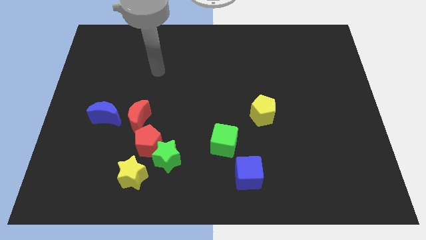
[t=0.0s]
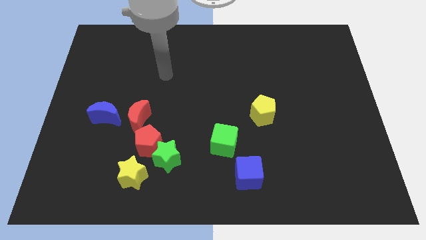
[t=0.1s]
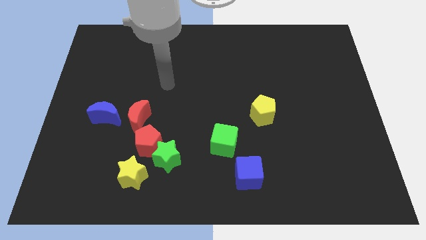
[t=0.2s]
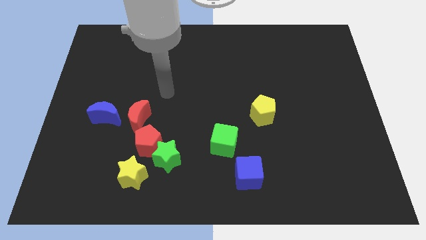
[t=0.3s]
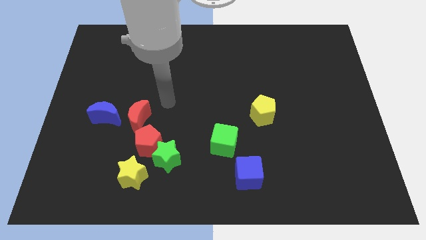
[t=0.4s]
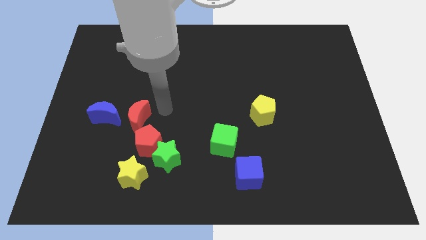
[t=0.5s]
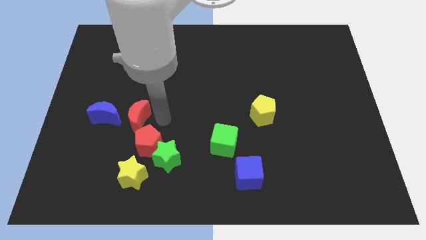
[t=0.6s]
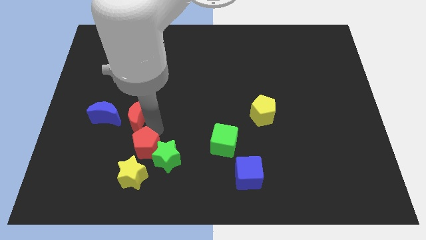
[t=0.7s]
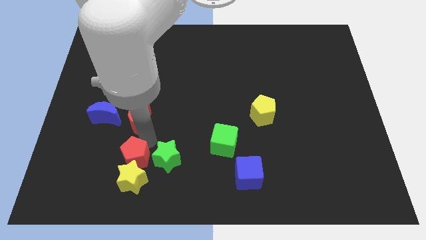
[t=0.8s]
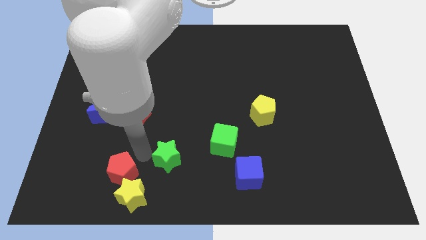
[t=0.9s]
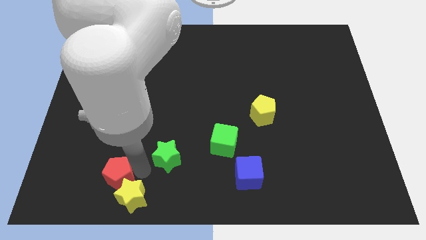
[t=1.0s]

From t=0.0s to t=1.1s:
move the green star away from the red pentagon and yellow star

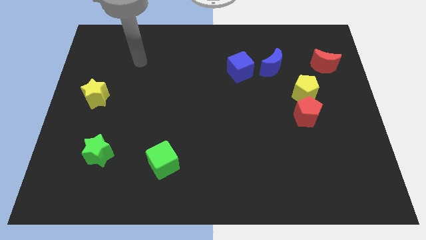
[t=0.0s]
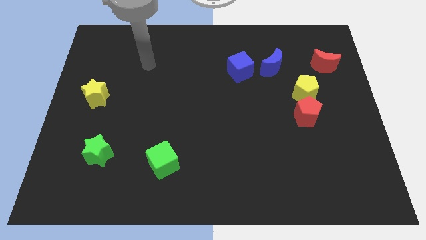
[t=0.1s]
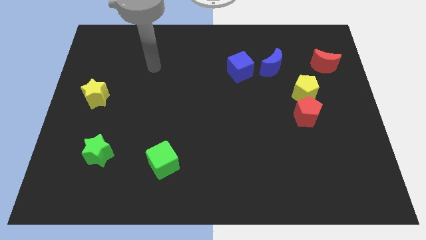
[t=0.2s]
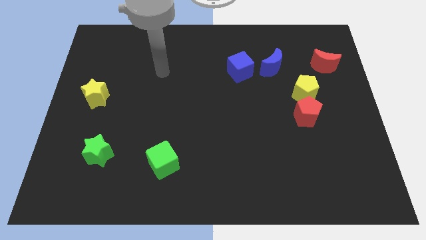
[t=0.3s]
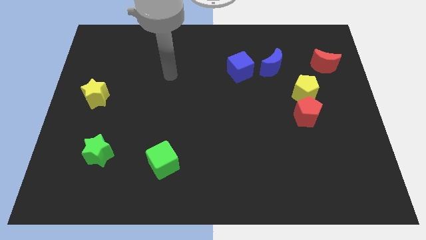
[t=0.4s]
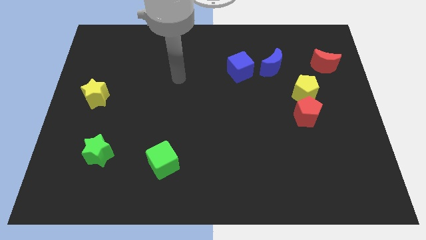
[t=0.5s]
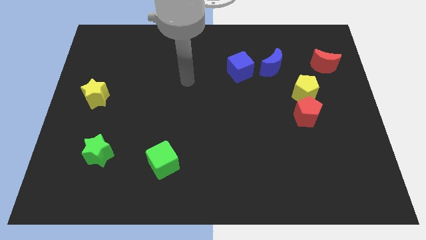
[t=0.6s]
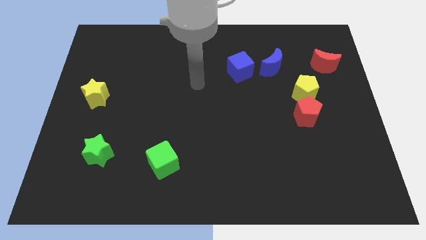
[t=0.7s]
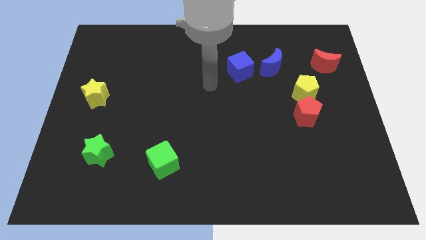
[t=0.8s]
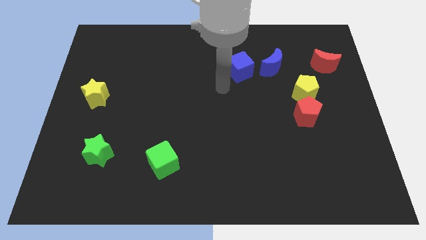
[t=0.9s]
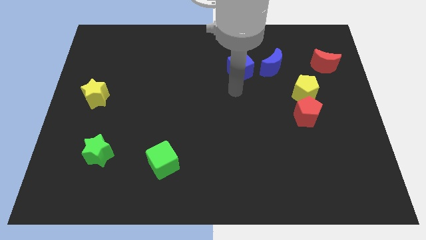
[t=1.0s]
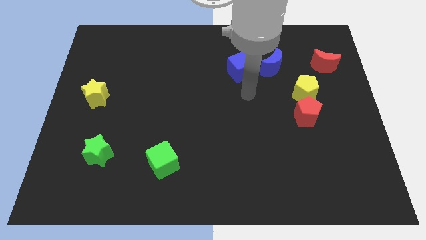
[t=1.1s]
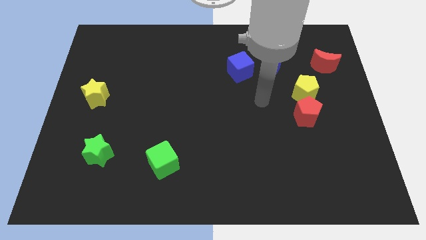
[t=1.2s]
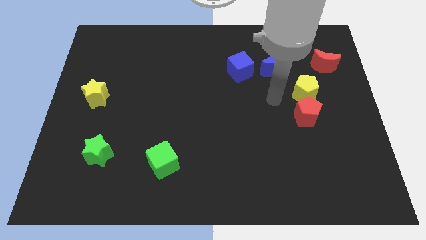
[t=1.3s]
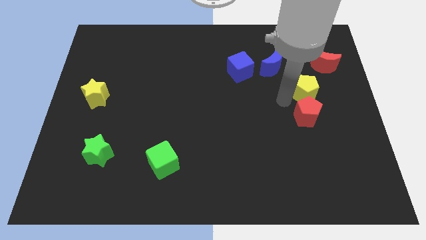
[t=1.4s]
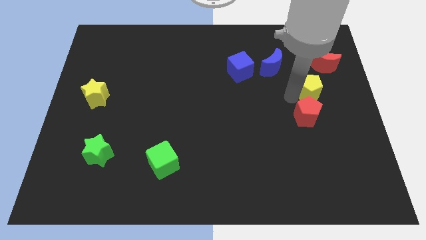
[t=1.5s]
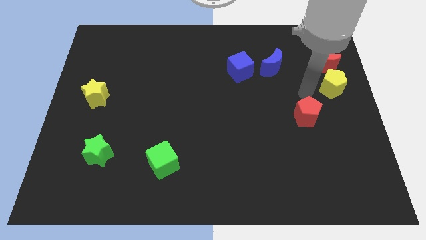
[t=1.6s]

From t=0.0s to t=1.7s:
pull the red pentagon apart from the yellow pentagon

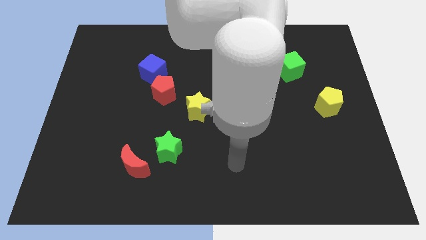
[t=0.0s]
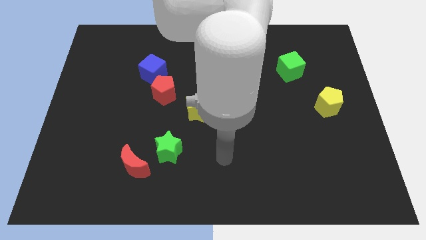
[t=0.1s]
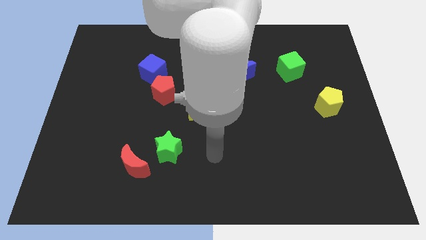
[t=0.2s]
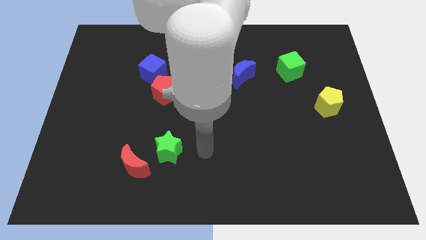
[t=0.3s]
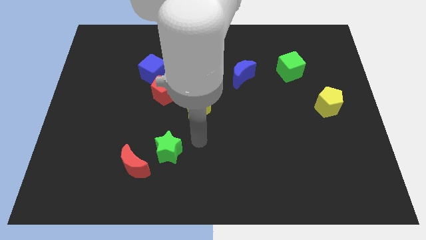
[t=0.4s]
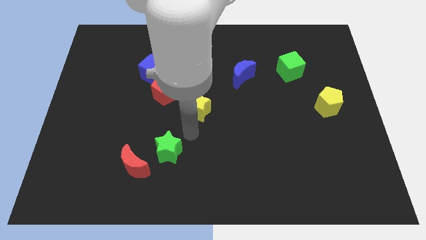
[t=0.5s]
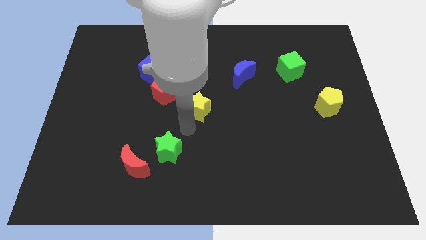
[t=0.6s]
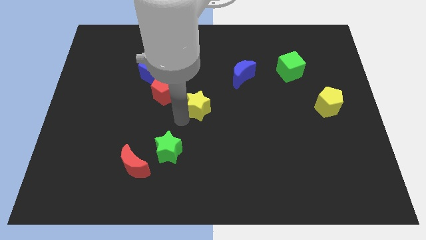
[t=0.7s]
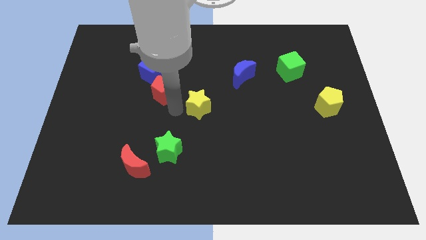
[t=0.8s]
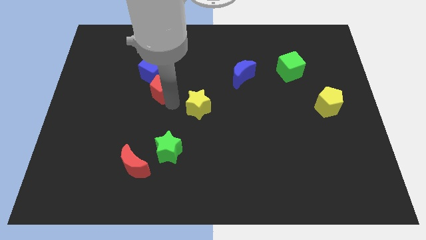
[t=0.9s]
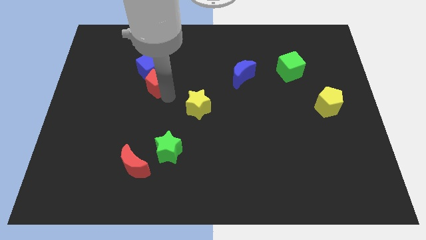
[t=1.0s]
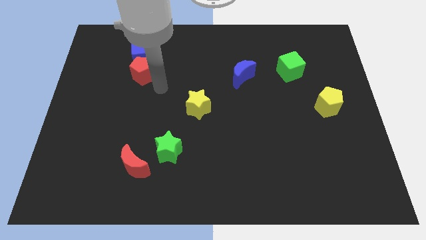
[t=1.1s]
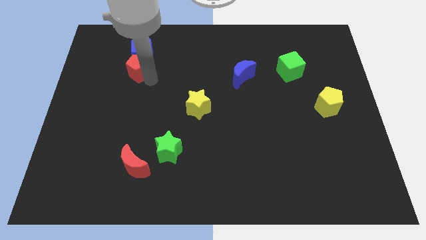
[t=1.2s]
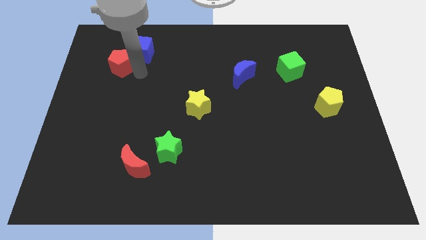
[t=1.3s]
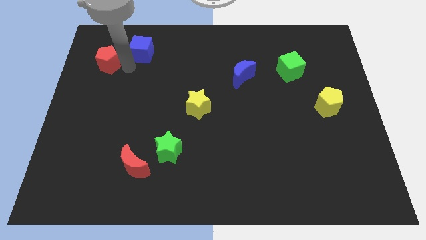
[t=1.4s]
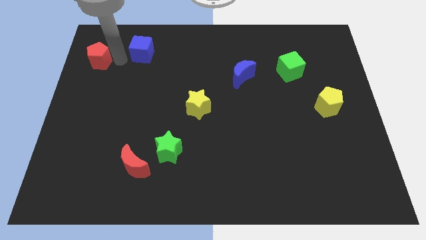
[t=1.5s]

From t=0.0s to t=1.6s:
move the blue cube away from the red pentagon

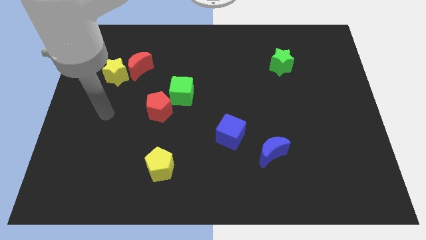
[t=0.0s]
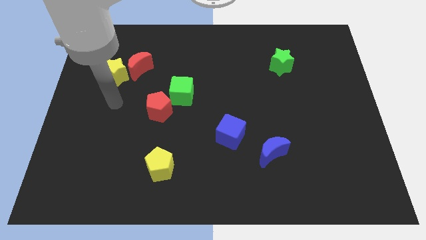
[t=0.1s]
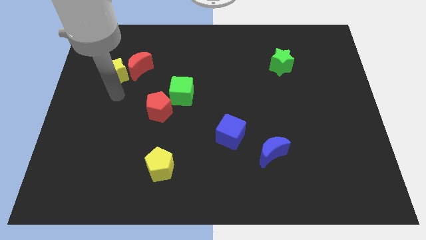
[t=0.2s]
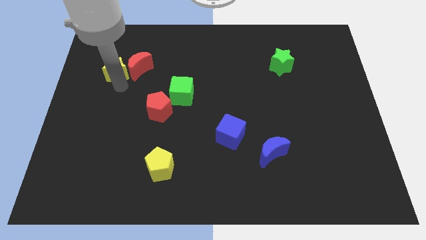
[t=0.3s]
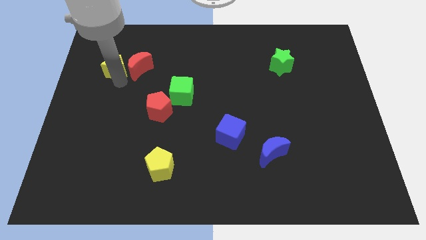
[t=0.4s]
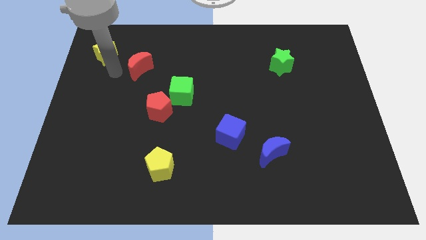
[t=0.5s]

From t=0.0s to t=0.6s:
separate the red moon from the yellow star

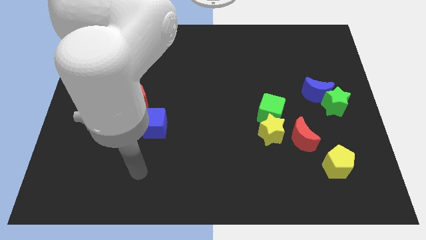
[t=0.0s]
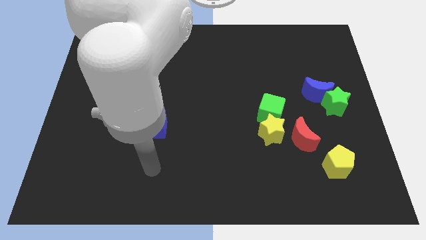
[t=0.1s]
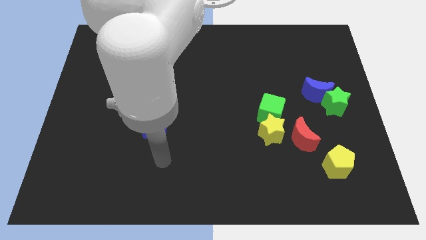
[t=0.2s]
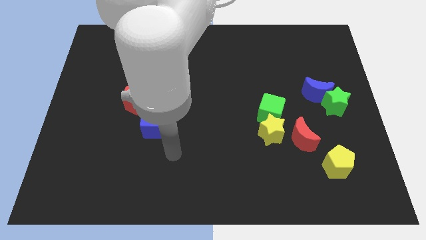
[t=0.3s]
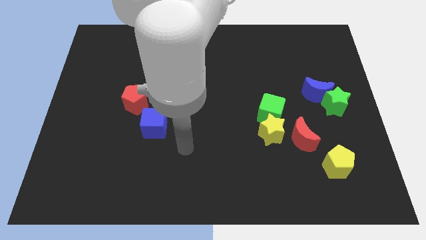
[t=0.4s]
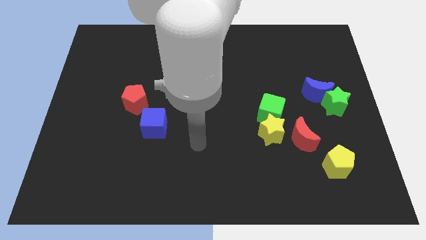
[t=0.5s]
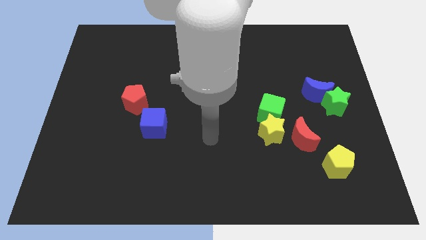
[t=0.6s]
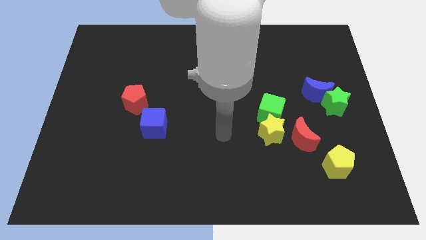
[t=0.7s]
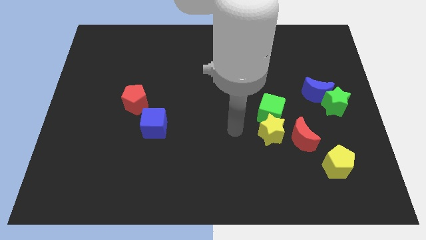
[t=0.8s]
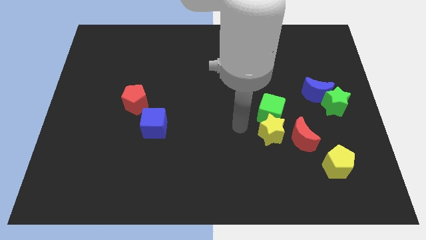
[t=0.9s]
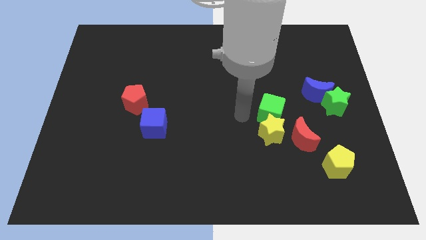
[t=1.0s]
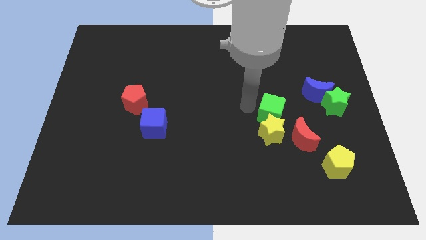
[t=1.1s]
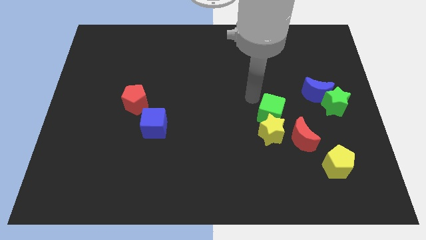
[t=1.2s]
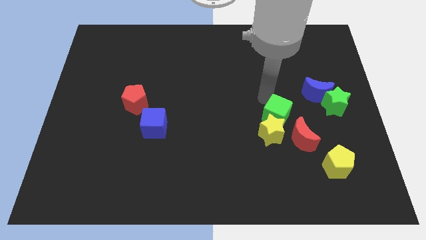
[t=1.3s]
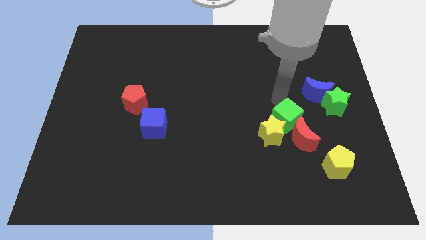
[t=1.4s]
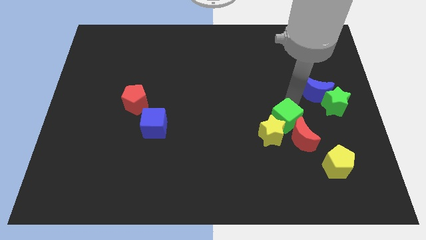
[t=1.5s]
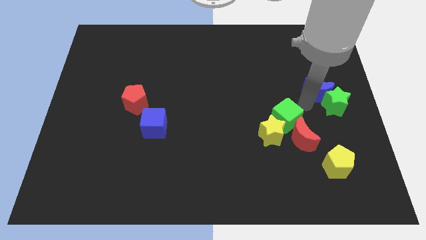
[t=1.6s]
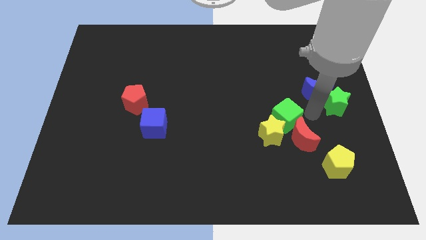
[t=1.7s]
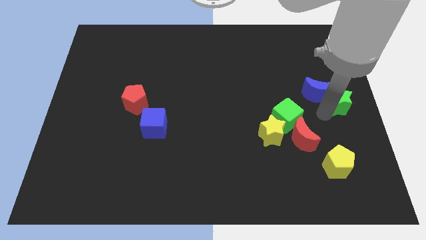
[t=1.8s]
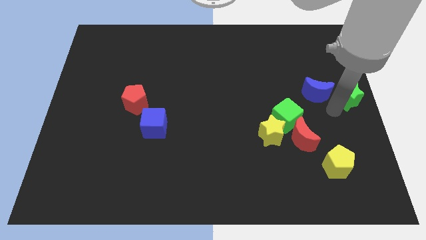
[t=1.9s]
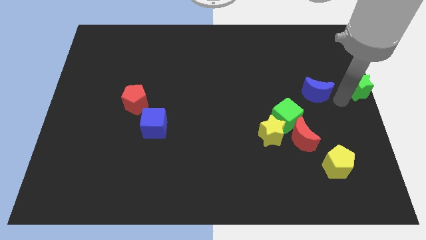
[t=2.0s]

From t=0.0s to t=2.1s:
move the blue moon away from the green star

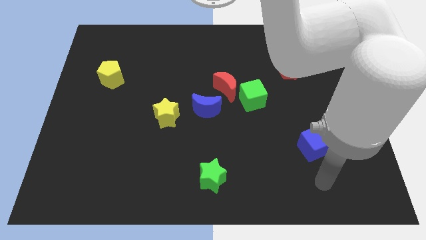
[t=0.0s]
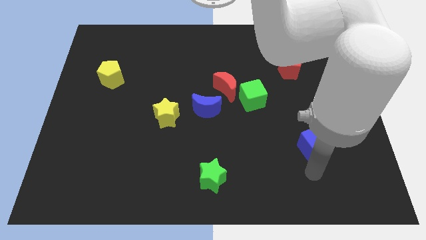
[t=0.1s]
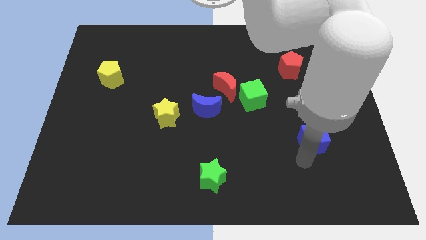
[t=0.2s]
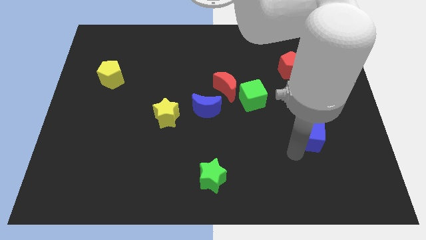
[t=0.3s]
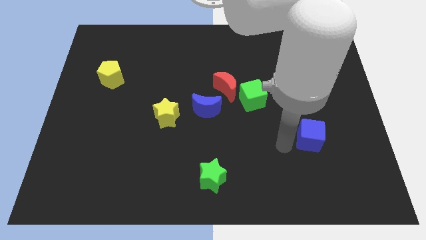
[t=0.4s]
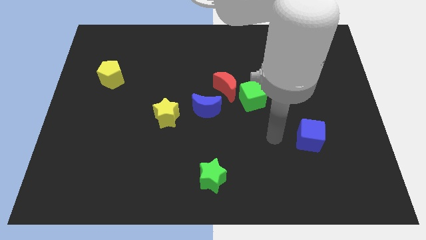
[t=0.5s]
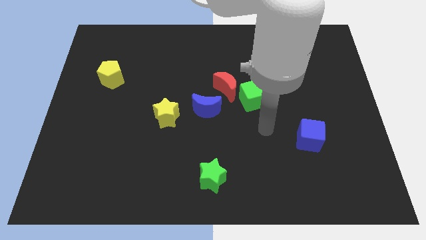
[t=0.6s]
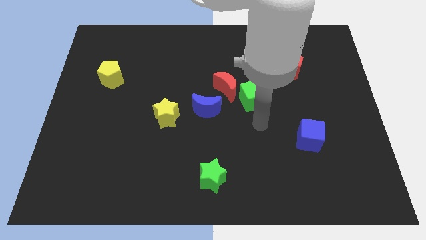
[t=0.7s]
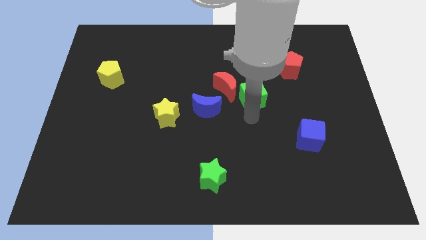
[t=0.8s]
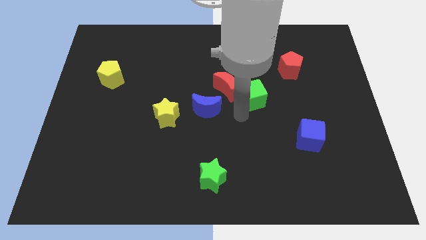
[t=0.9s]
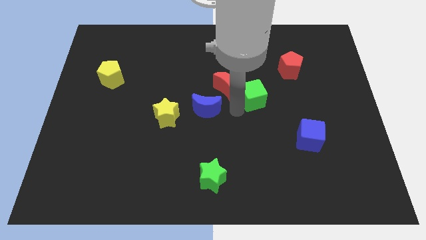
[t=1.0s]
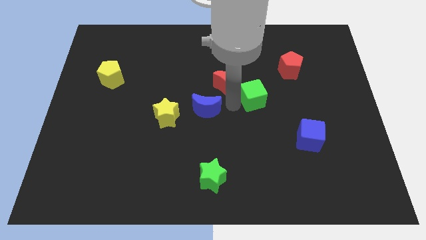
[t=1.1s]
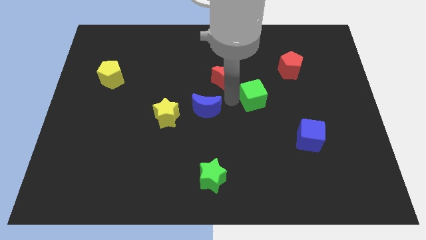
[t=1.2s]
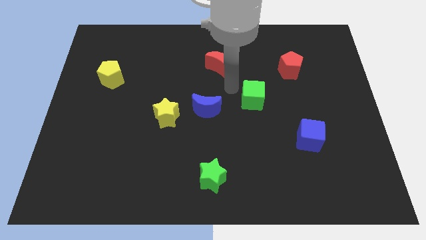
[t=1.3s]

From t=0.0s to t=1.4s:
move the green cube away from the red moon

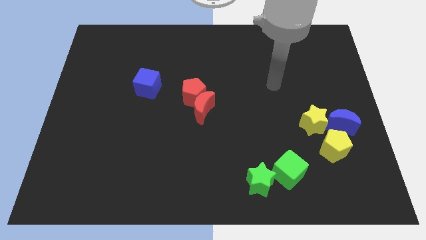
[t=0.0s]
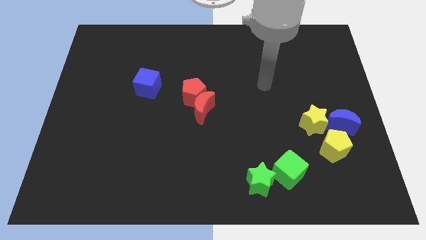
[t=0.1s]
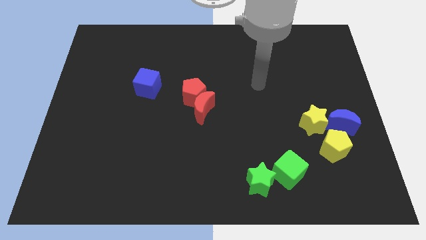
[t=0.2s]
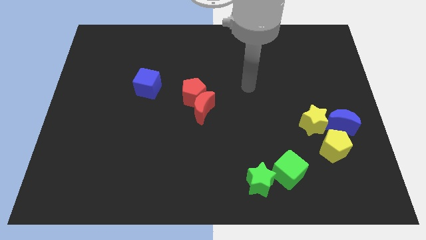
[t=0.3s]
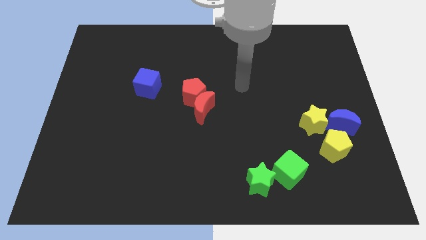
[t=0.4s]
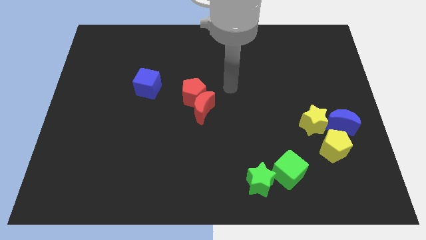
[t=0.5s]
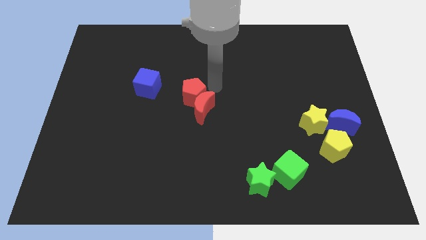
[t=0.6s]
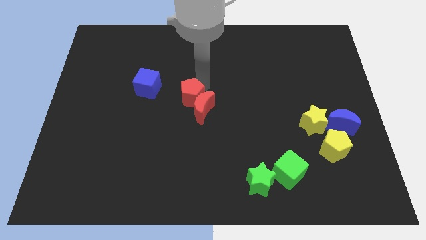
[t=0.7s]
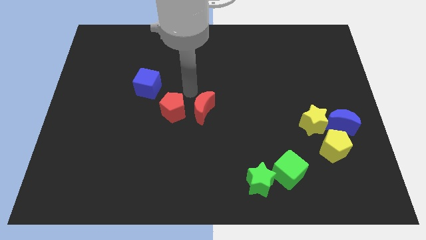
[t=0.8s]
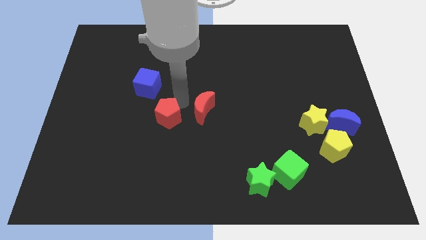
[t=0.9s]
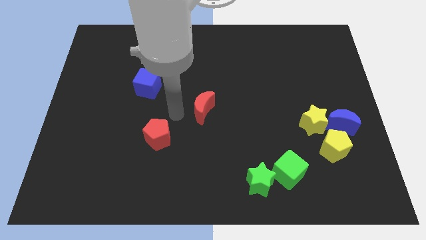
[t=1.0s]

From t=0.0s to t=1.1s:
pull the red moon apart from the red pentagon
